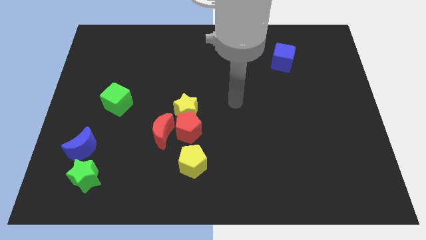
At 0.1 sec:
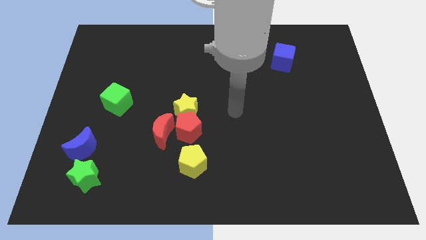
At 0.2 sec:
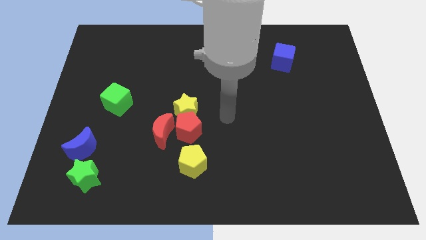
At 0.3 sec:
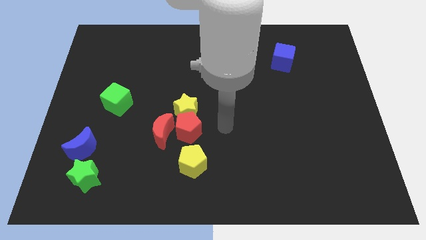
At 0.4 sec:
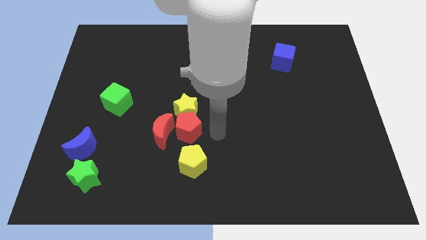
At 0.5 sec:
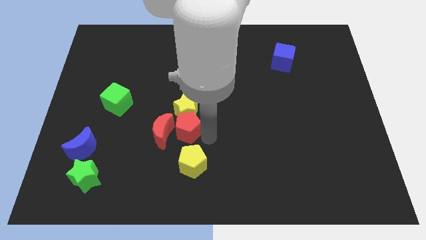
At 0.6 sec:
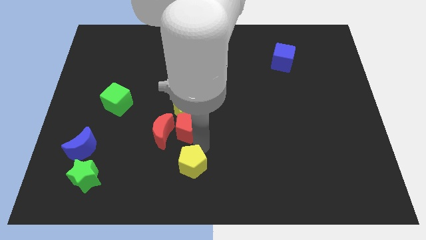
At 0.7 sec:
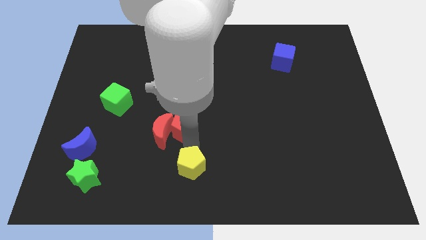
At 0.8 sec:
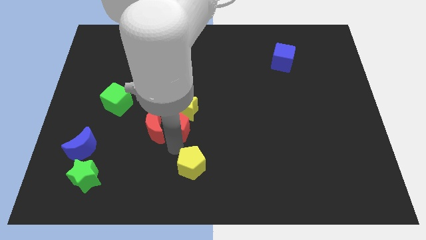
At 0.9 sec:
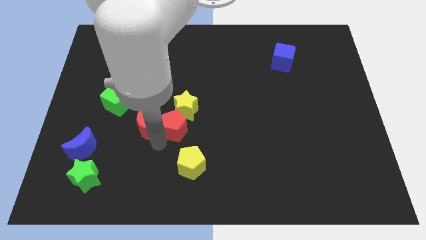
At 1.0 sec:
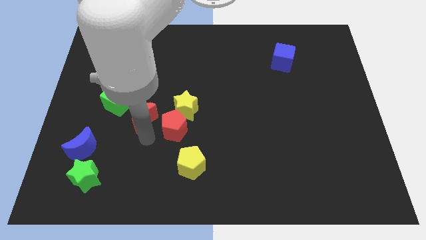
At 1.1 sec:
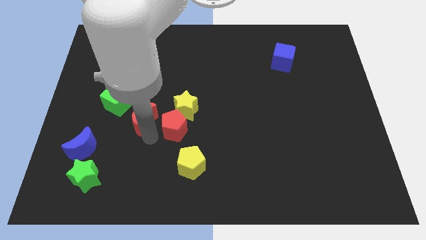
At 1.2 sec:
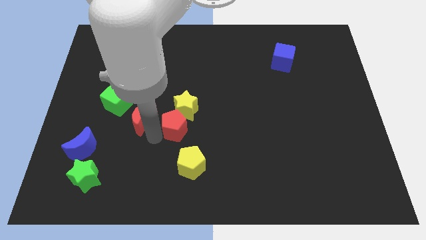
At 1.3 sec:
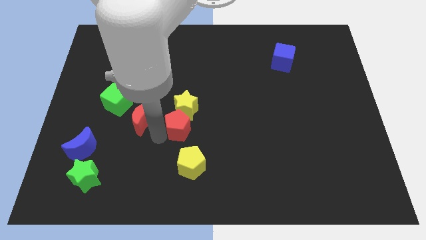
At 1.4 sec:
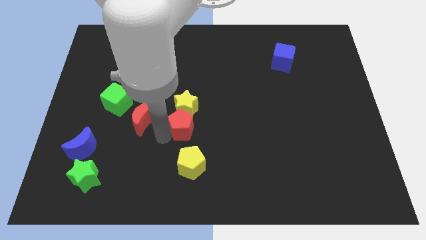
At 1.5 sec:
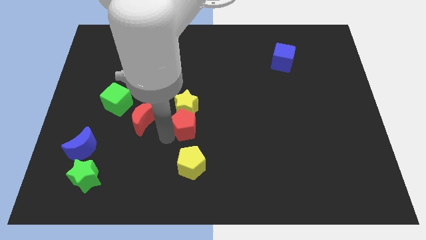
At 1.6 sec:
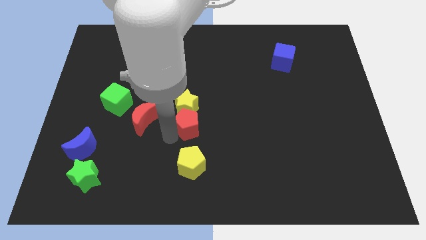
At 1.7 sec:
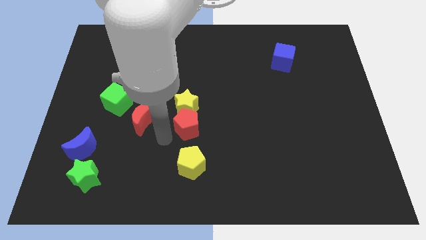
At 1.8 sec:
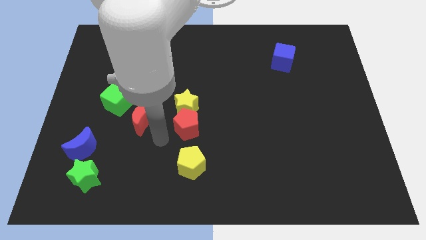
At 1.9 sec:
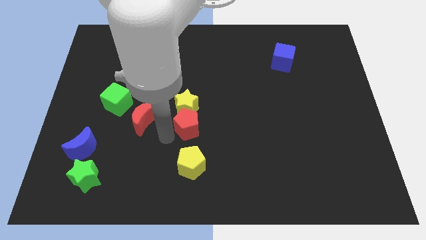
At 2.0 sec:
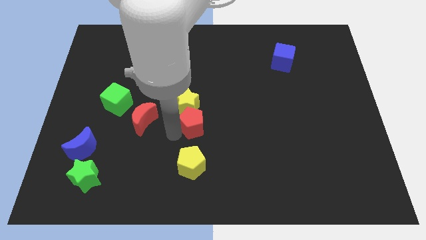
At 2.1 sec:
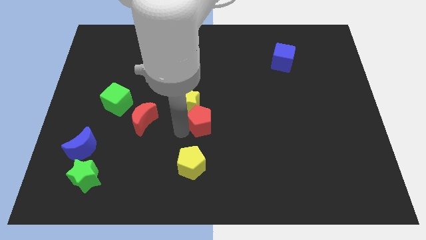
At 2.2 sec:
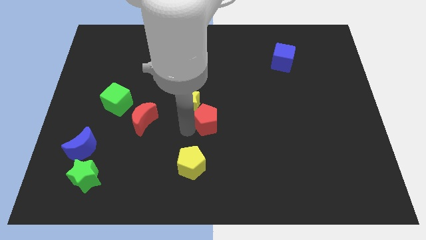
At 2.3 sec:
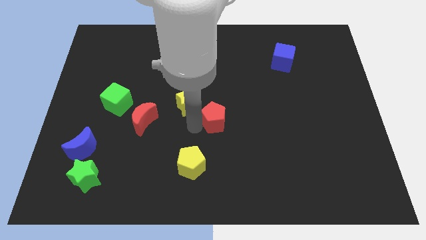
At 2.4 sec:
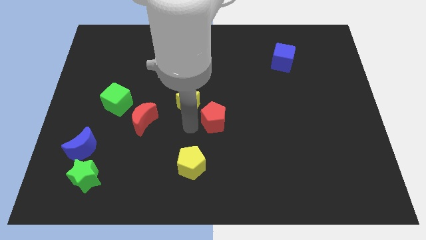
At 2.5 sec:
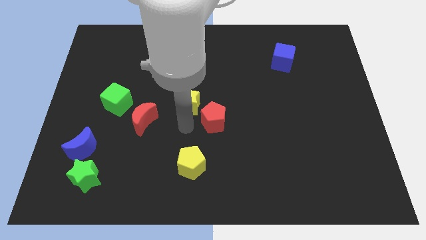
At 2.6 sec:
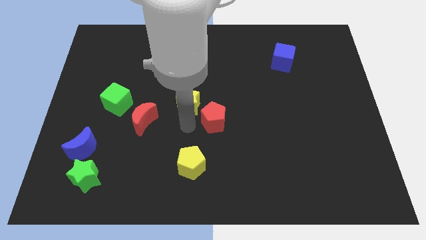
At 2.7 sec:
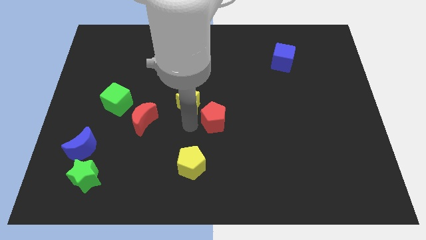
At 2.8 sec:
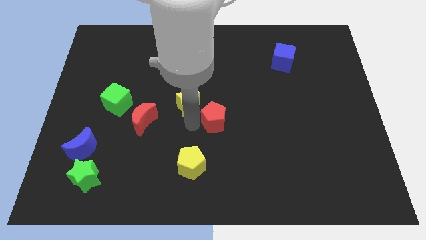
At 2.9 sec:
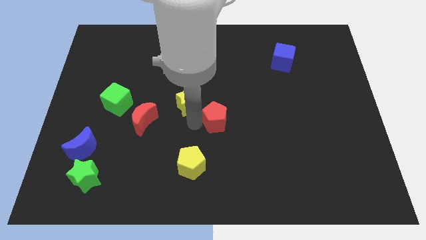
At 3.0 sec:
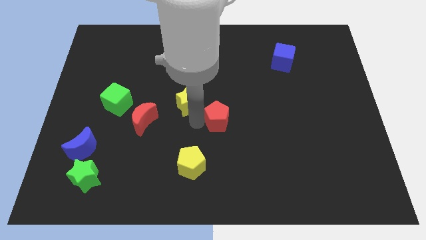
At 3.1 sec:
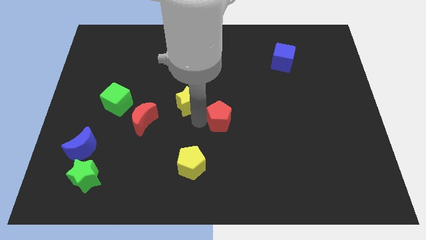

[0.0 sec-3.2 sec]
move the red pentagon away from the yellow star, red moon, and yellow pentagon

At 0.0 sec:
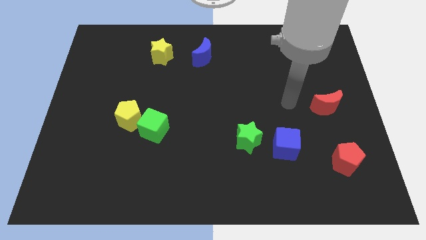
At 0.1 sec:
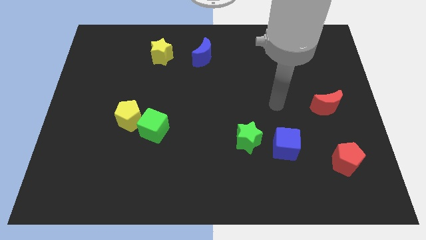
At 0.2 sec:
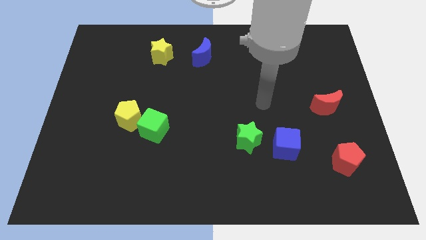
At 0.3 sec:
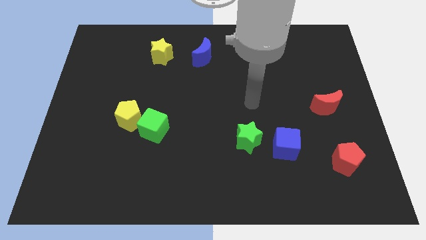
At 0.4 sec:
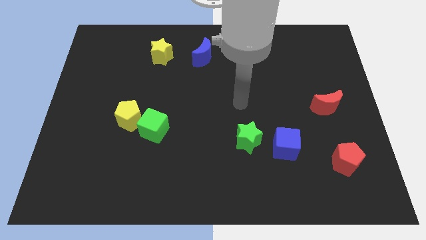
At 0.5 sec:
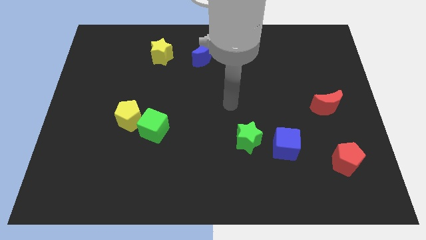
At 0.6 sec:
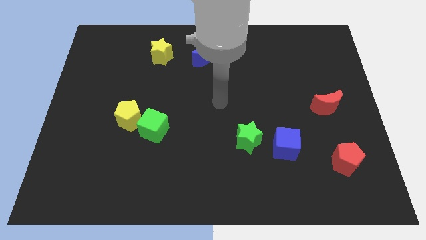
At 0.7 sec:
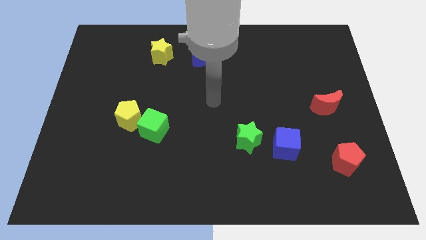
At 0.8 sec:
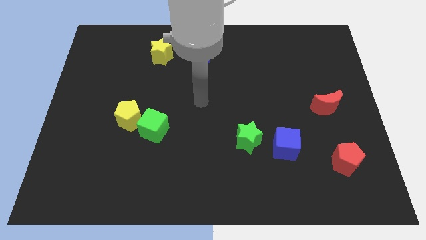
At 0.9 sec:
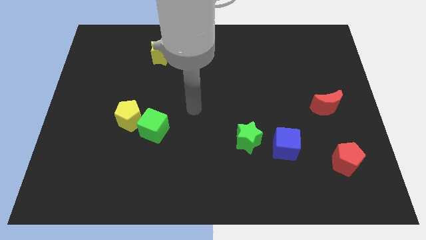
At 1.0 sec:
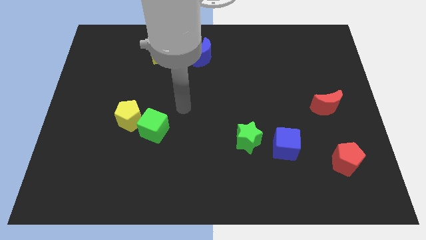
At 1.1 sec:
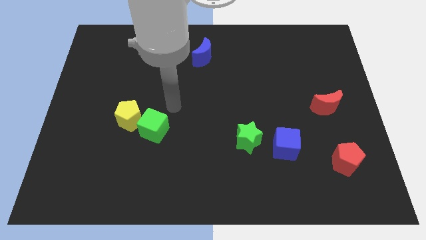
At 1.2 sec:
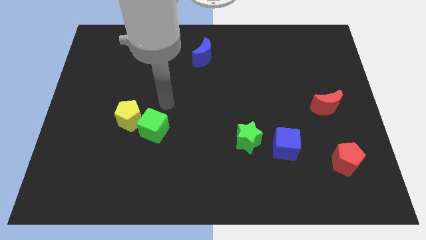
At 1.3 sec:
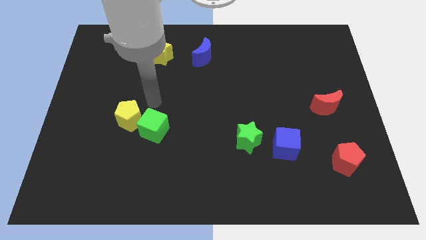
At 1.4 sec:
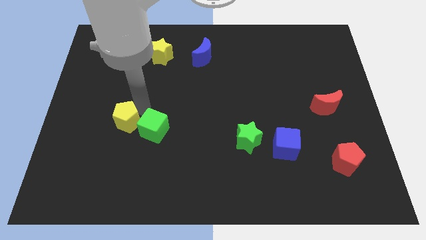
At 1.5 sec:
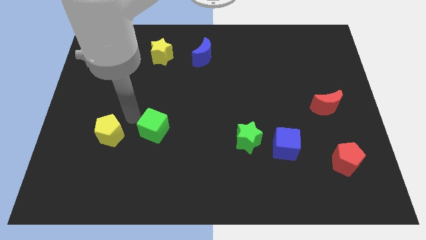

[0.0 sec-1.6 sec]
move the green cube away from the yellow pentagon

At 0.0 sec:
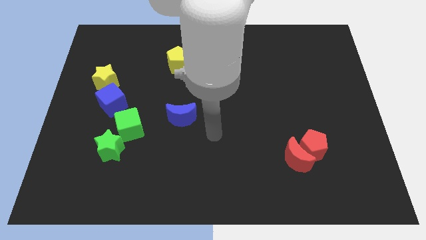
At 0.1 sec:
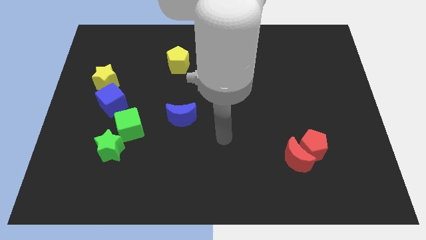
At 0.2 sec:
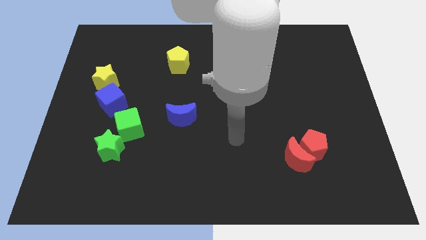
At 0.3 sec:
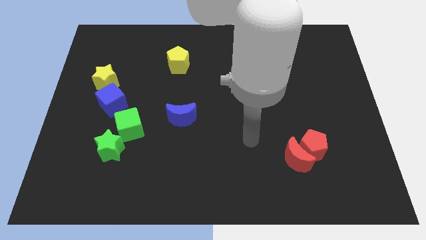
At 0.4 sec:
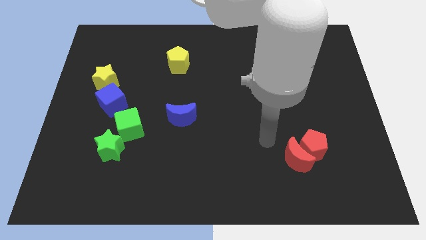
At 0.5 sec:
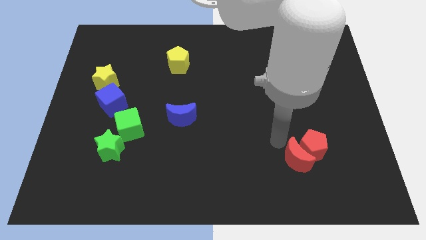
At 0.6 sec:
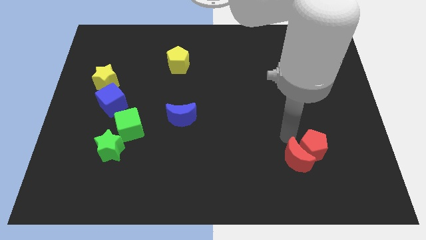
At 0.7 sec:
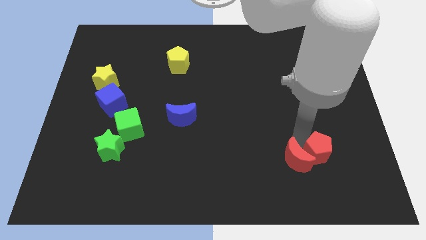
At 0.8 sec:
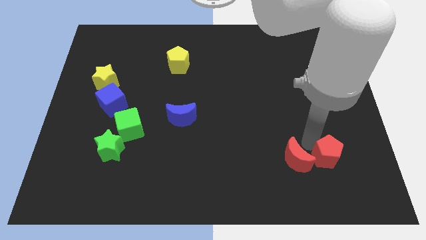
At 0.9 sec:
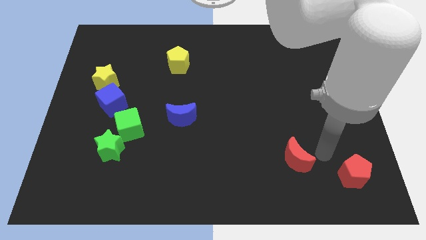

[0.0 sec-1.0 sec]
separate the red moon from the red pentagon

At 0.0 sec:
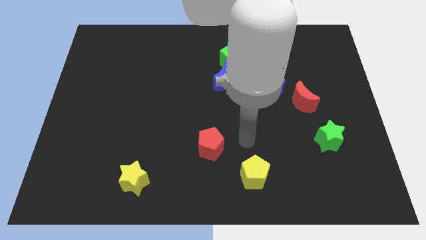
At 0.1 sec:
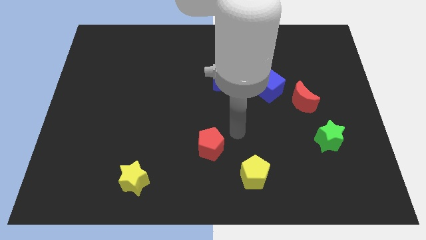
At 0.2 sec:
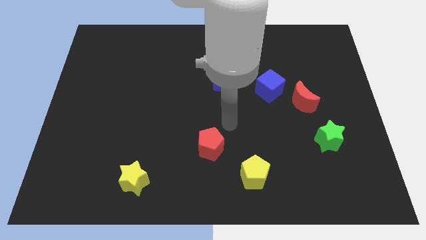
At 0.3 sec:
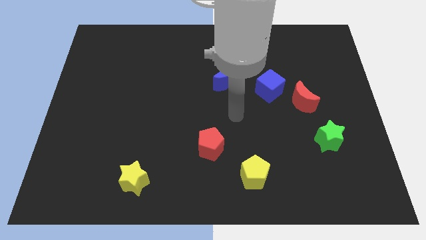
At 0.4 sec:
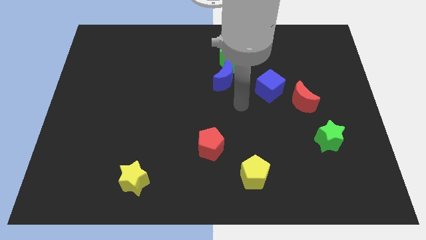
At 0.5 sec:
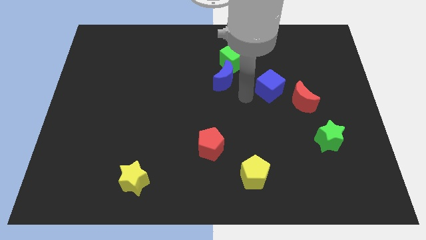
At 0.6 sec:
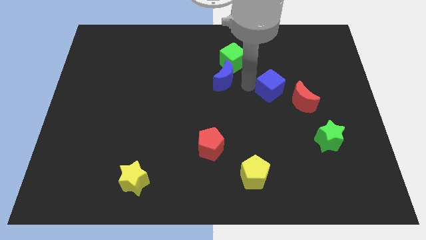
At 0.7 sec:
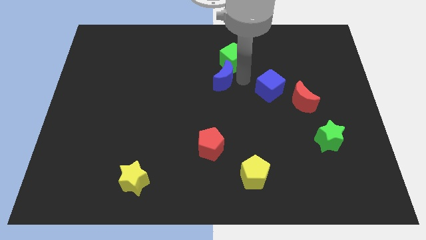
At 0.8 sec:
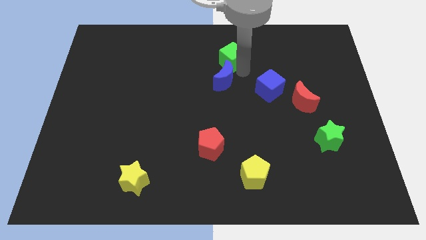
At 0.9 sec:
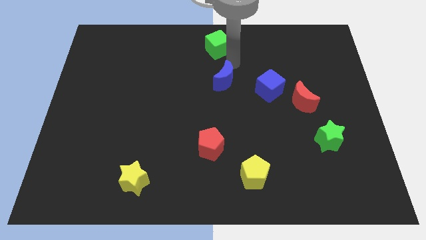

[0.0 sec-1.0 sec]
move the blue moon away from the green cube

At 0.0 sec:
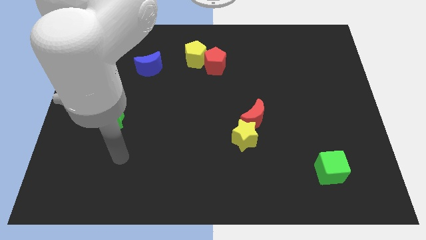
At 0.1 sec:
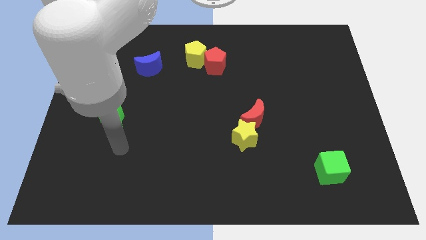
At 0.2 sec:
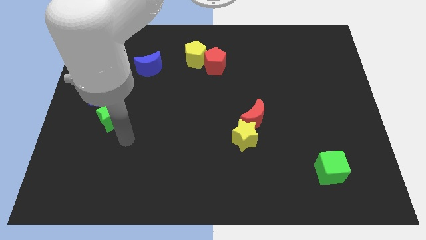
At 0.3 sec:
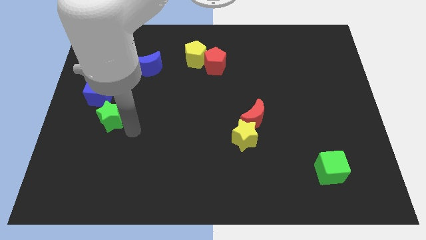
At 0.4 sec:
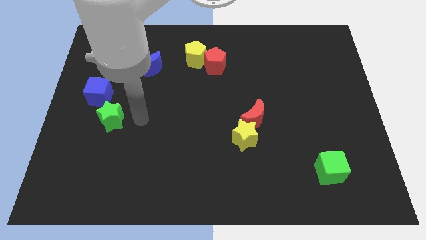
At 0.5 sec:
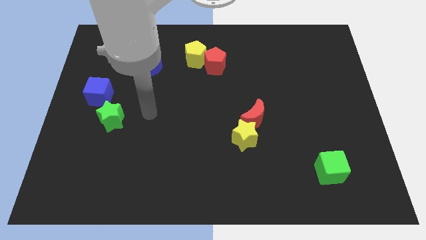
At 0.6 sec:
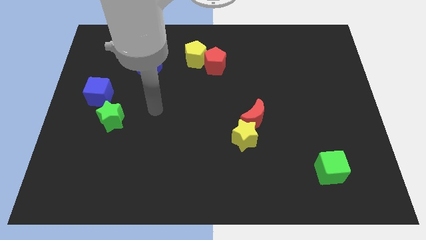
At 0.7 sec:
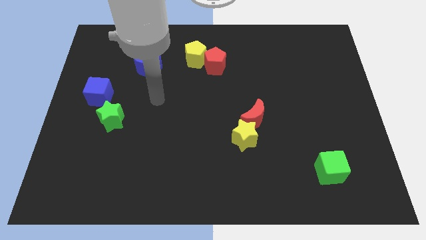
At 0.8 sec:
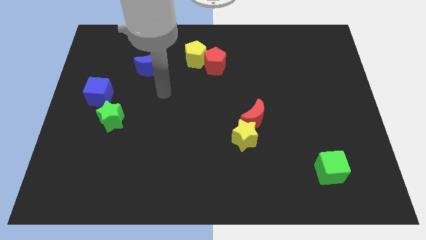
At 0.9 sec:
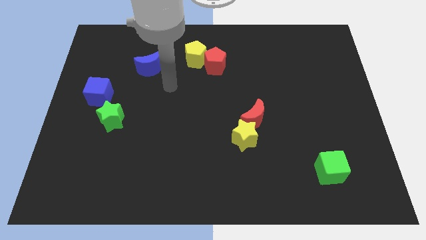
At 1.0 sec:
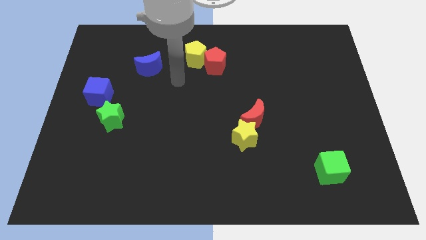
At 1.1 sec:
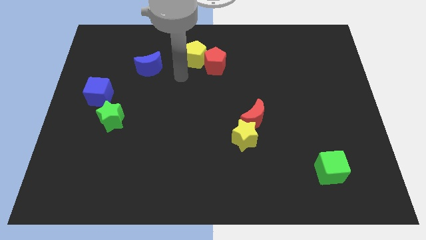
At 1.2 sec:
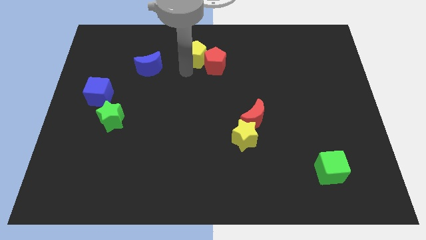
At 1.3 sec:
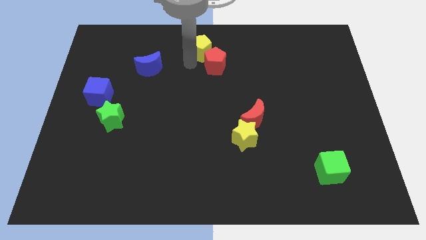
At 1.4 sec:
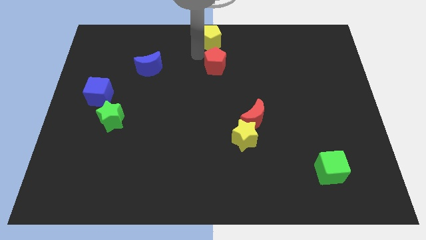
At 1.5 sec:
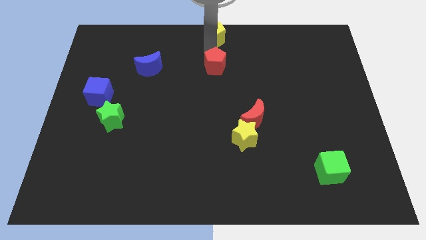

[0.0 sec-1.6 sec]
separate the red pentagon from the yellow pentagon

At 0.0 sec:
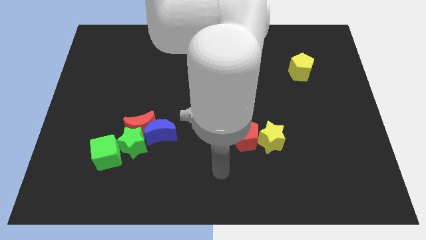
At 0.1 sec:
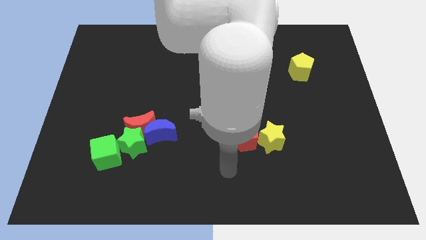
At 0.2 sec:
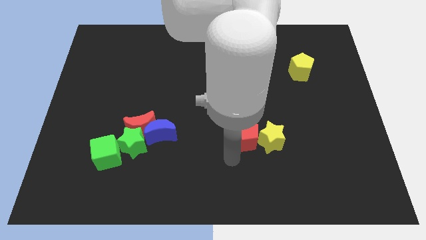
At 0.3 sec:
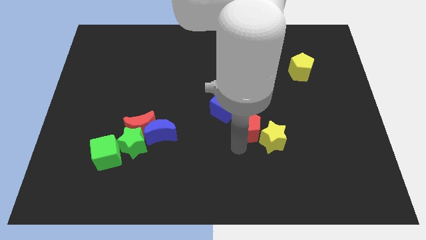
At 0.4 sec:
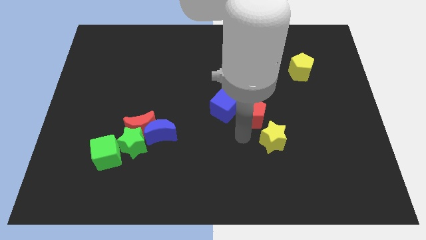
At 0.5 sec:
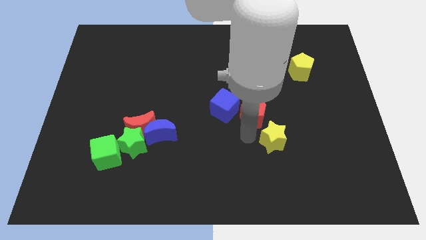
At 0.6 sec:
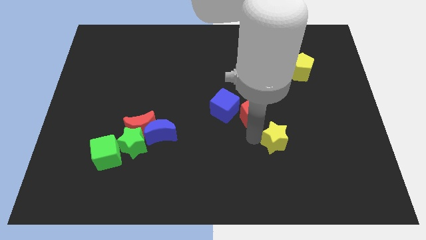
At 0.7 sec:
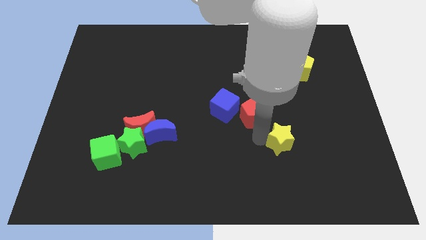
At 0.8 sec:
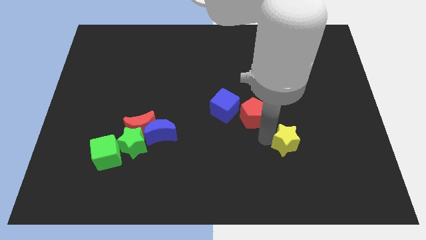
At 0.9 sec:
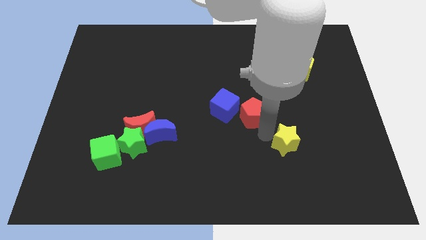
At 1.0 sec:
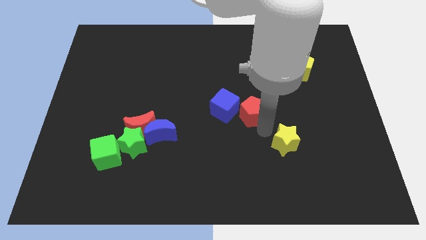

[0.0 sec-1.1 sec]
pull the yellow star apart from the red pentagon
